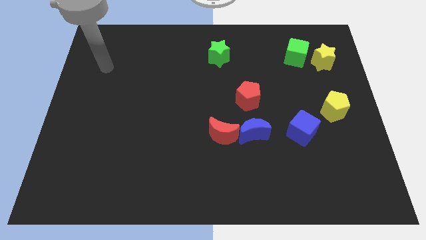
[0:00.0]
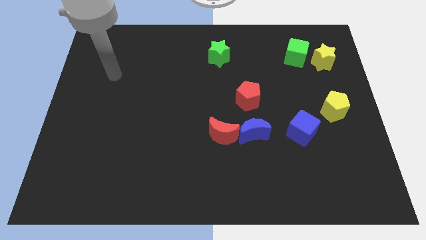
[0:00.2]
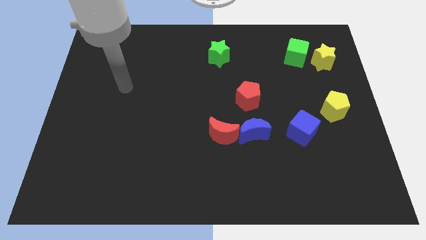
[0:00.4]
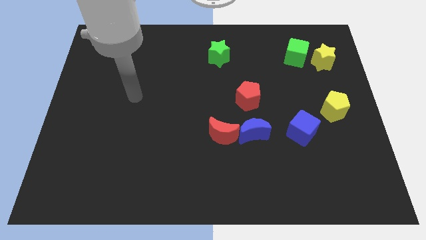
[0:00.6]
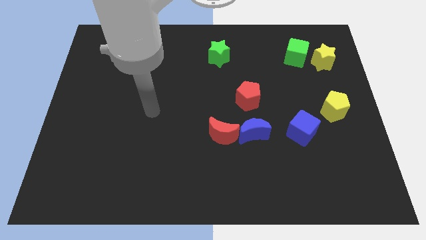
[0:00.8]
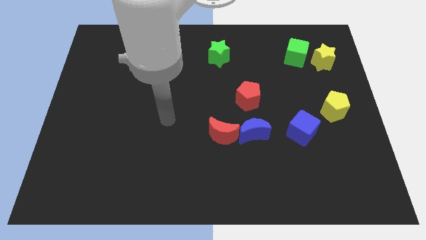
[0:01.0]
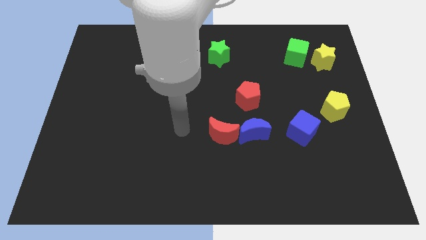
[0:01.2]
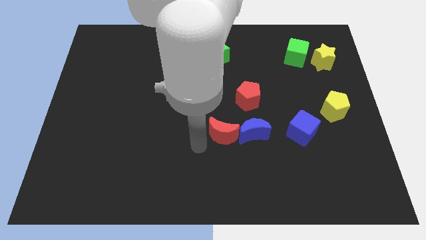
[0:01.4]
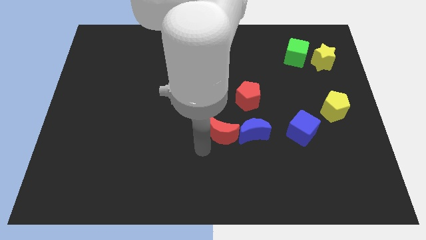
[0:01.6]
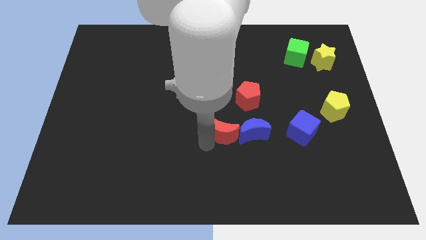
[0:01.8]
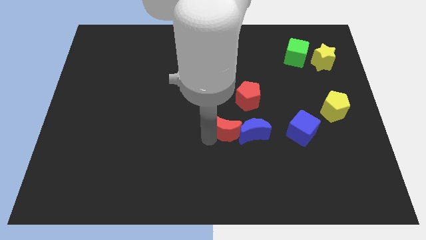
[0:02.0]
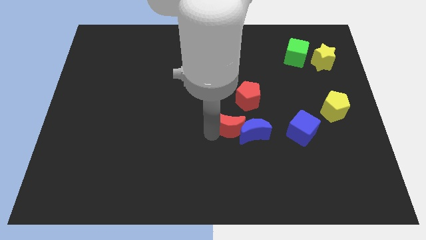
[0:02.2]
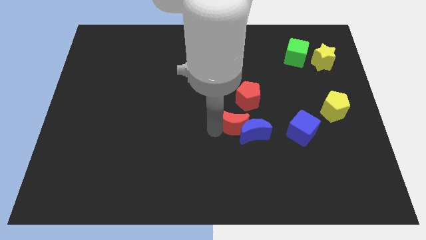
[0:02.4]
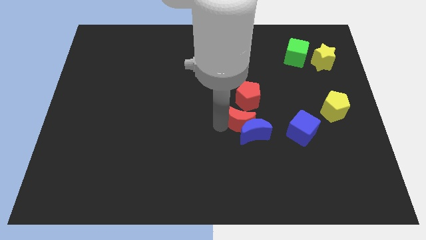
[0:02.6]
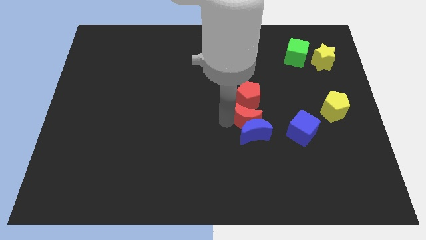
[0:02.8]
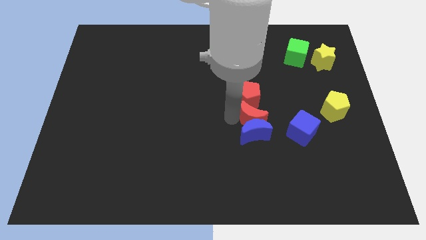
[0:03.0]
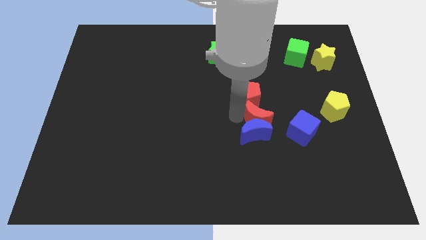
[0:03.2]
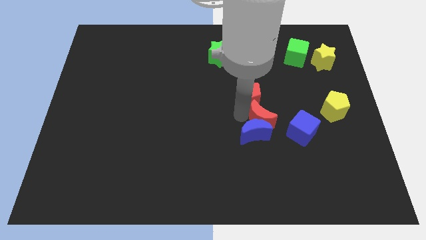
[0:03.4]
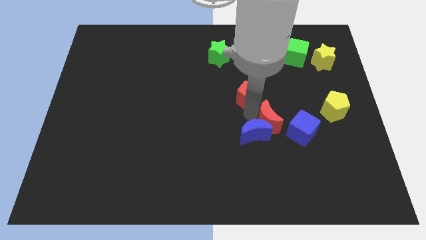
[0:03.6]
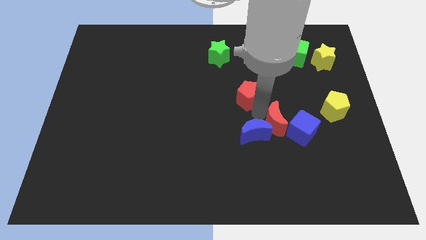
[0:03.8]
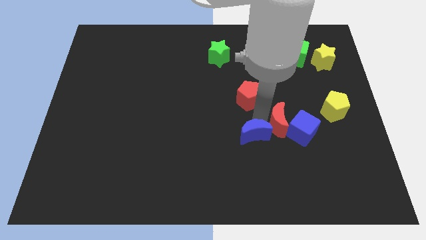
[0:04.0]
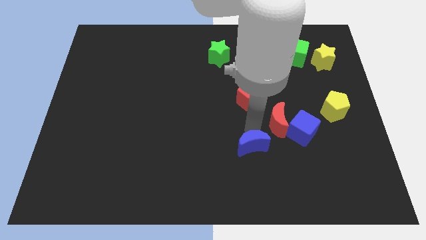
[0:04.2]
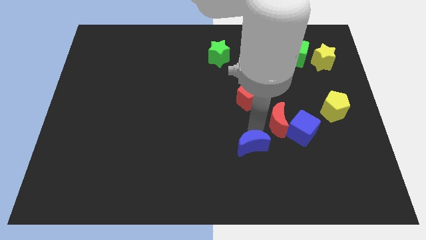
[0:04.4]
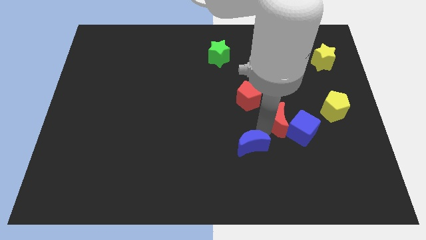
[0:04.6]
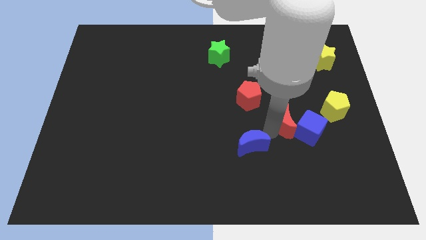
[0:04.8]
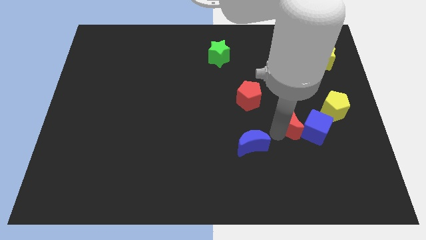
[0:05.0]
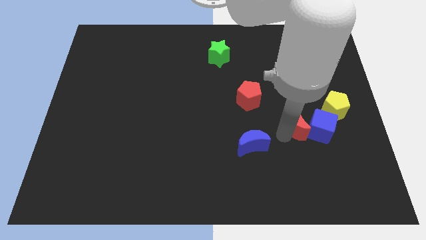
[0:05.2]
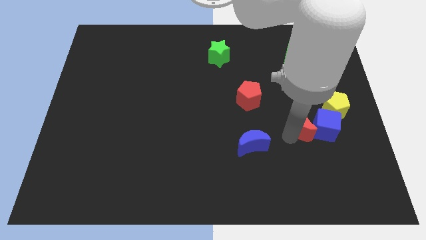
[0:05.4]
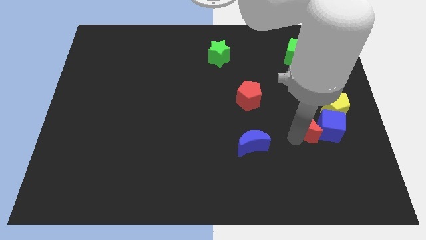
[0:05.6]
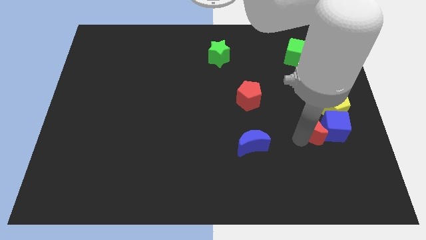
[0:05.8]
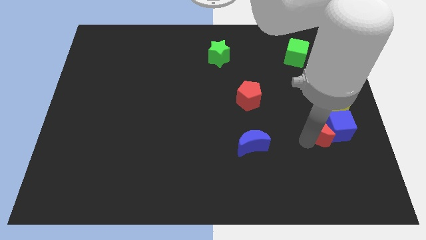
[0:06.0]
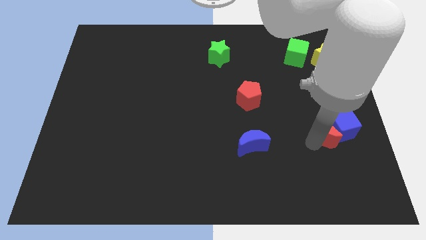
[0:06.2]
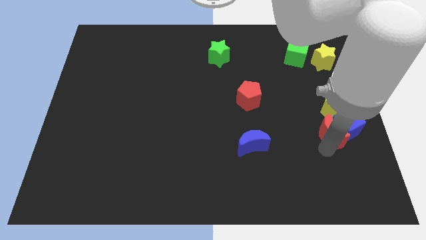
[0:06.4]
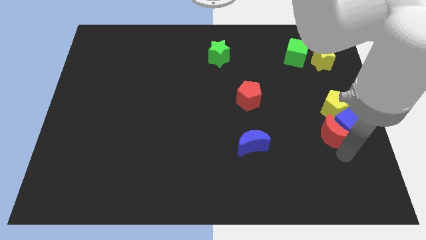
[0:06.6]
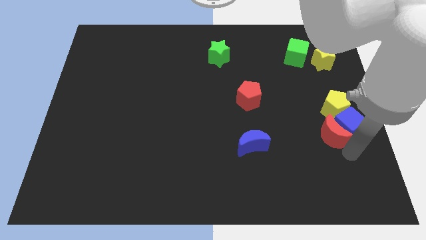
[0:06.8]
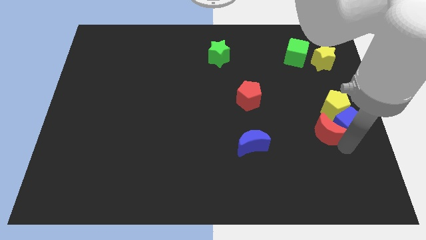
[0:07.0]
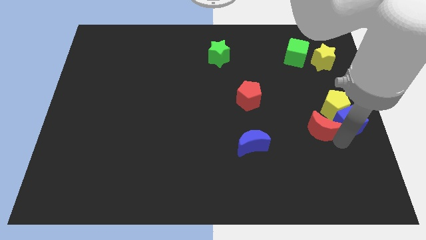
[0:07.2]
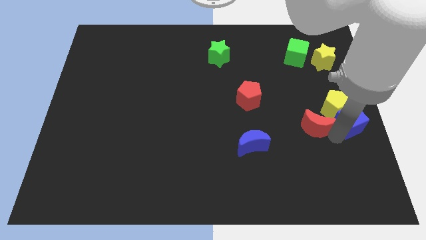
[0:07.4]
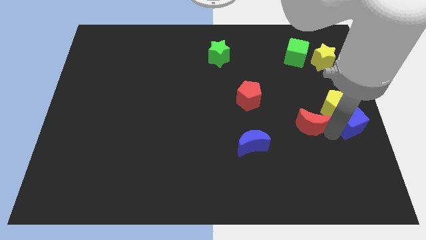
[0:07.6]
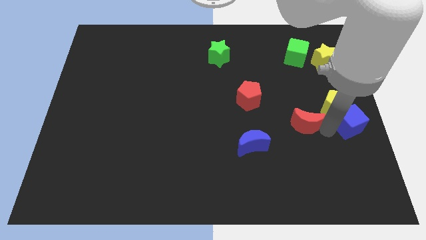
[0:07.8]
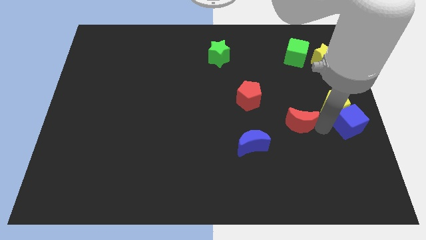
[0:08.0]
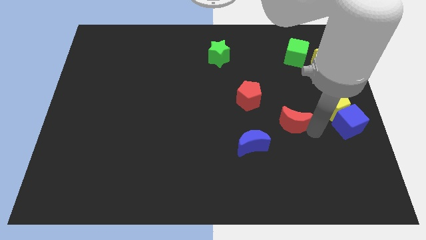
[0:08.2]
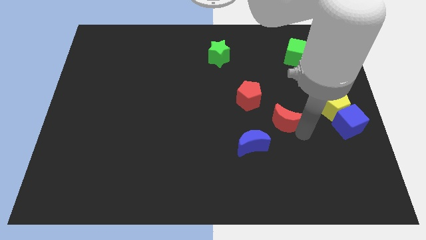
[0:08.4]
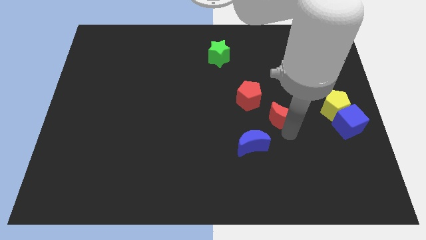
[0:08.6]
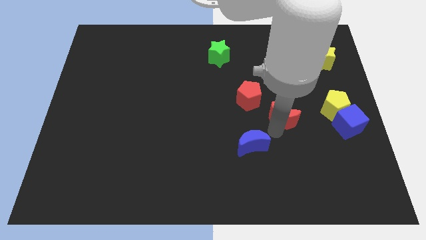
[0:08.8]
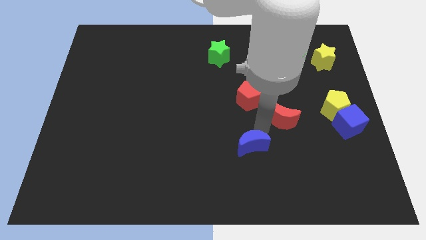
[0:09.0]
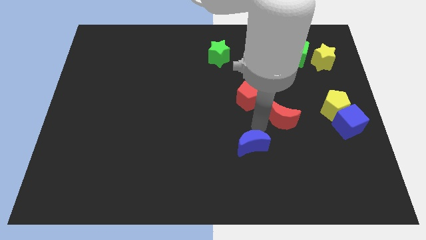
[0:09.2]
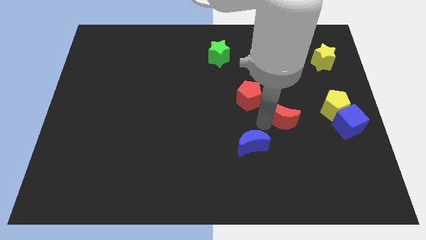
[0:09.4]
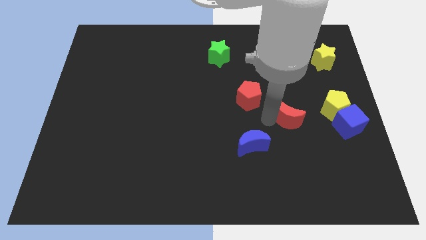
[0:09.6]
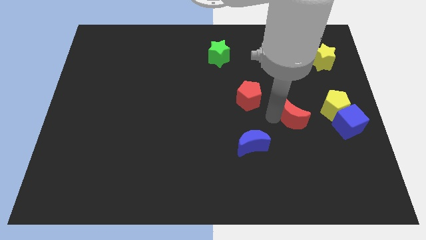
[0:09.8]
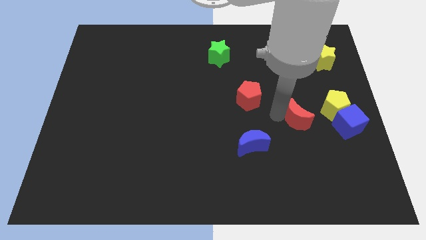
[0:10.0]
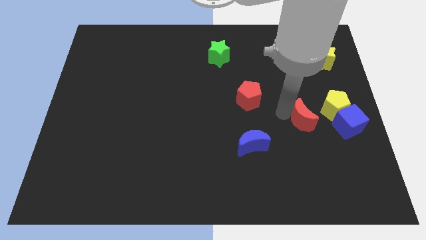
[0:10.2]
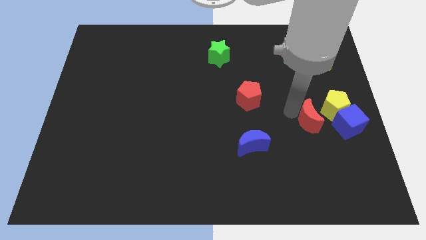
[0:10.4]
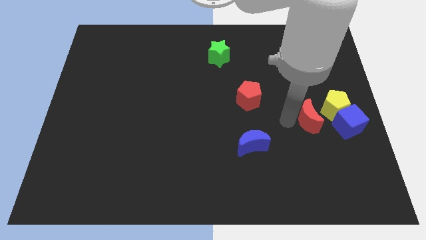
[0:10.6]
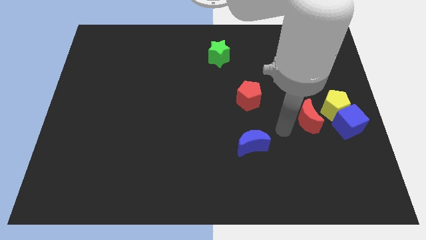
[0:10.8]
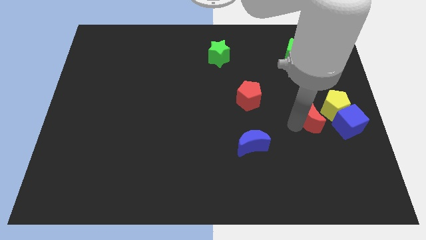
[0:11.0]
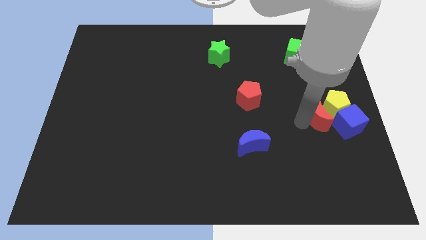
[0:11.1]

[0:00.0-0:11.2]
slide the red moon close to the yellow pentagon

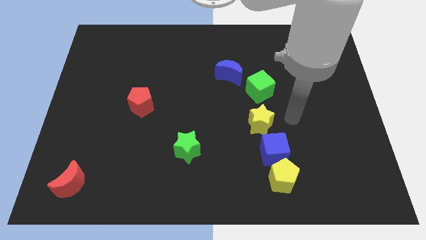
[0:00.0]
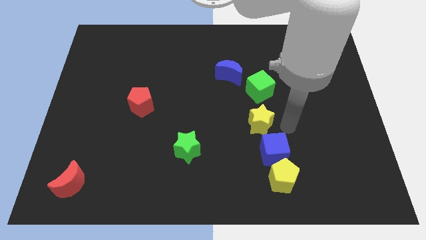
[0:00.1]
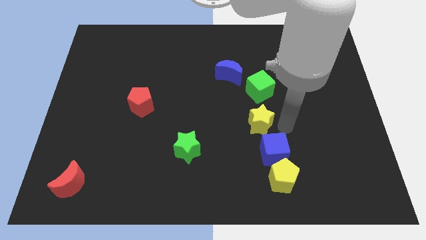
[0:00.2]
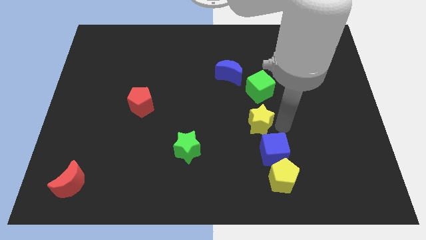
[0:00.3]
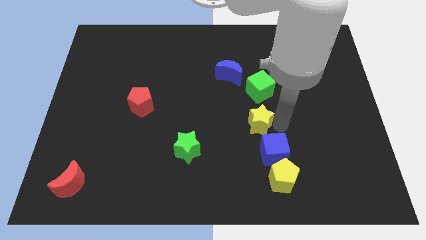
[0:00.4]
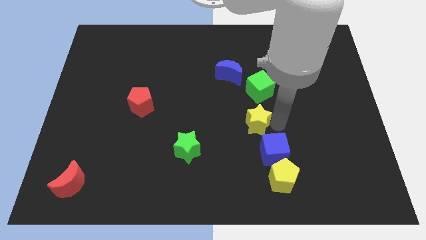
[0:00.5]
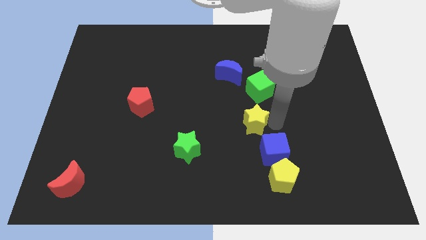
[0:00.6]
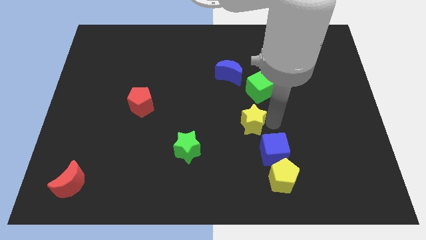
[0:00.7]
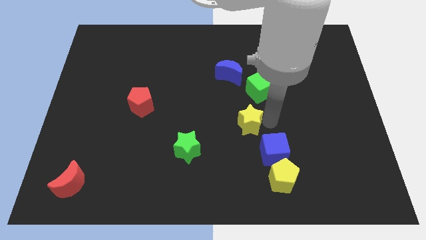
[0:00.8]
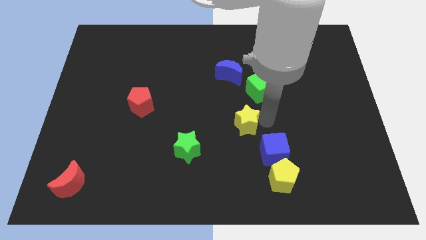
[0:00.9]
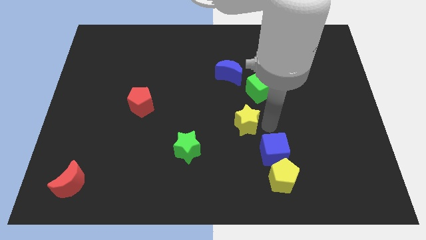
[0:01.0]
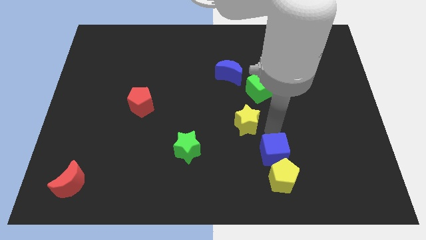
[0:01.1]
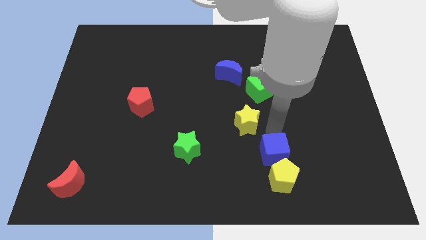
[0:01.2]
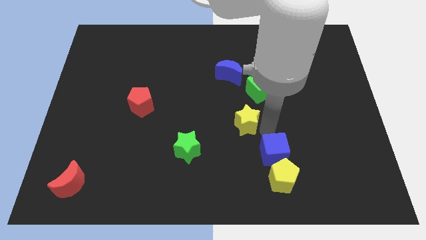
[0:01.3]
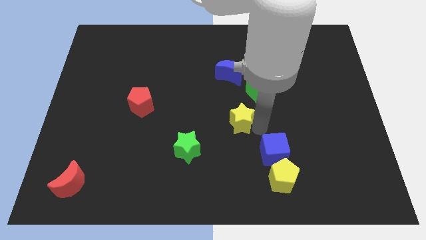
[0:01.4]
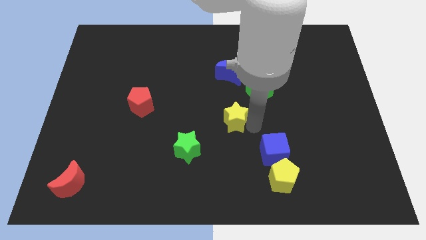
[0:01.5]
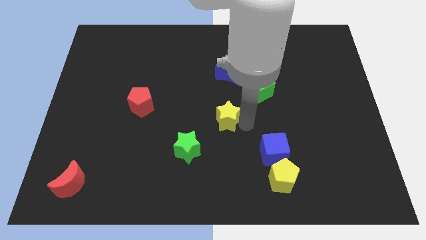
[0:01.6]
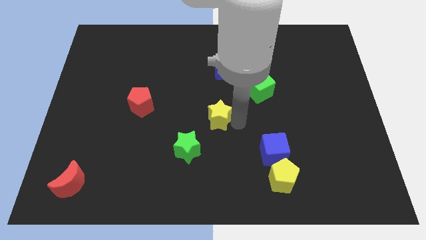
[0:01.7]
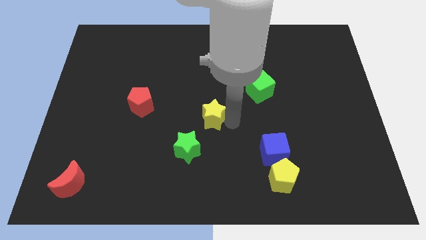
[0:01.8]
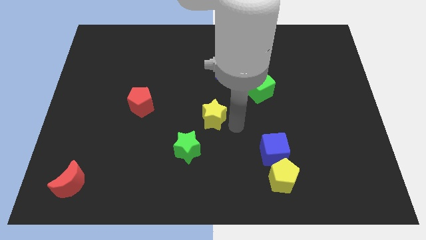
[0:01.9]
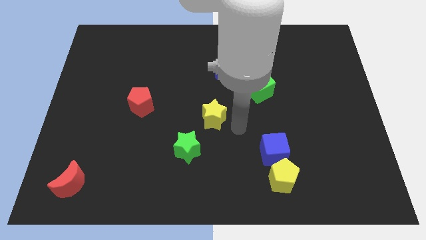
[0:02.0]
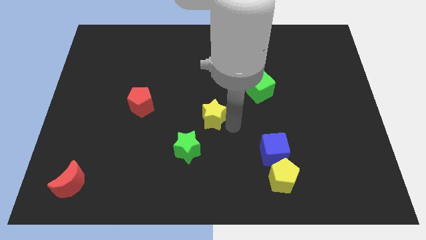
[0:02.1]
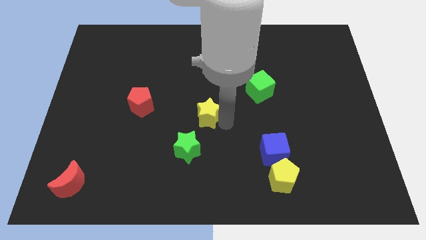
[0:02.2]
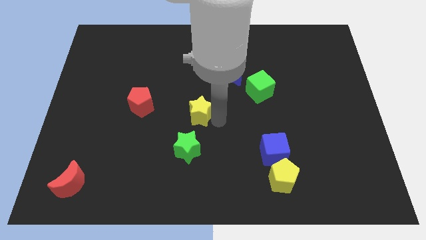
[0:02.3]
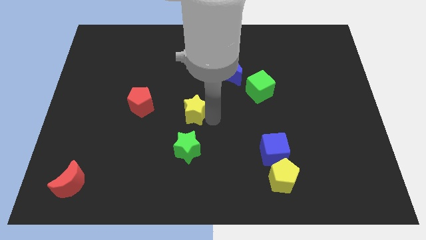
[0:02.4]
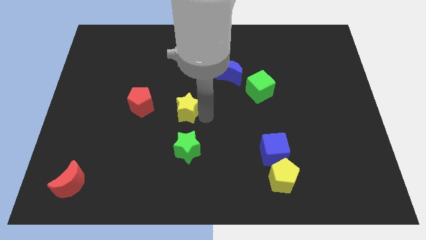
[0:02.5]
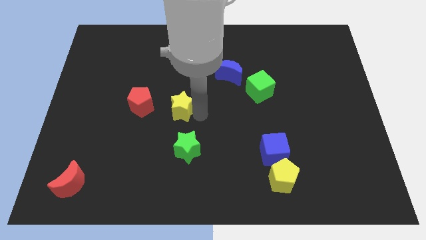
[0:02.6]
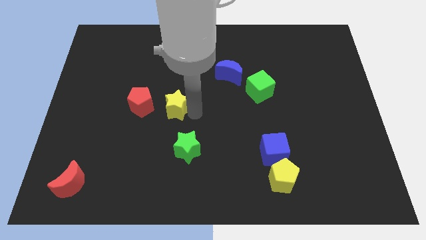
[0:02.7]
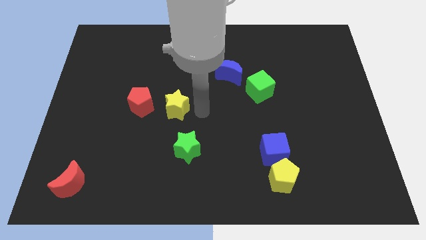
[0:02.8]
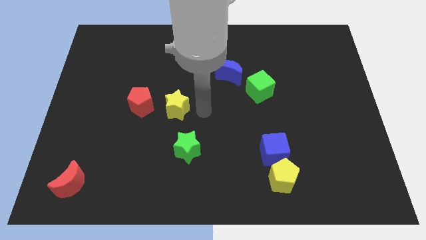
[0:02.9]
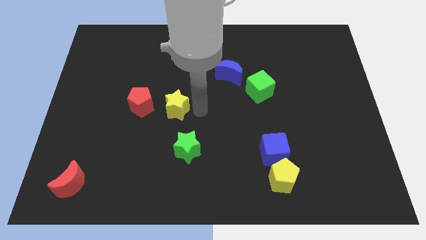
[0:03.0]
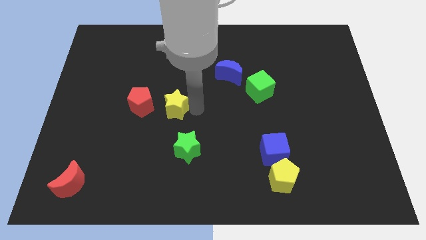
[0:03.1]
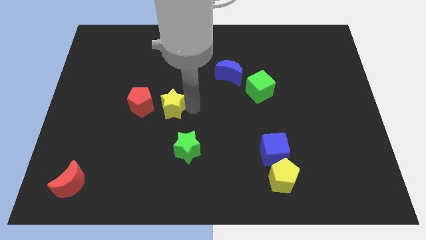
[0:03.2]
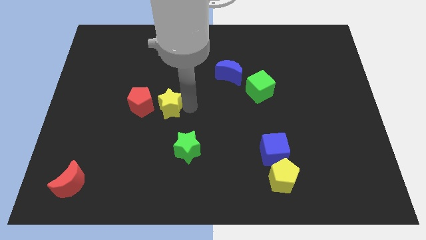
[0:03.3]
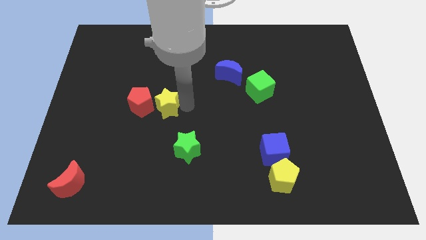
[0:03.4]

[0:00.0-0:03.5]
move the yellow star close to the red pentagon
